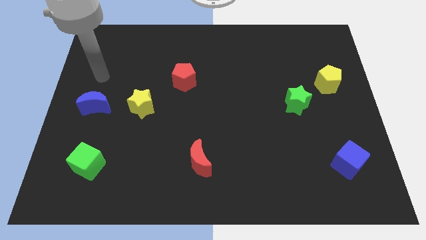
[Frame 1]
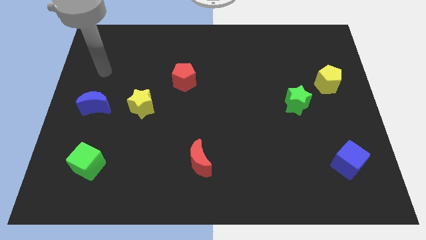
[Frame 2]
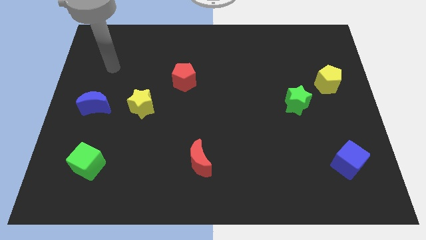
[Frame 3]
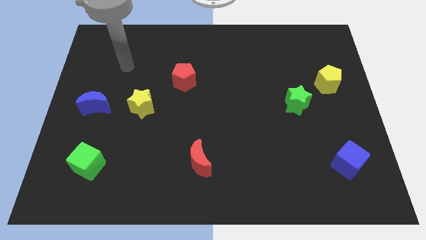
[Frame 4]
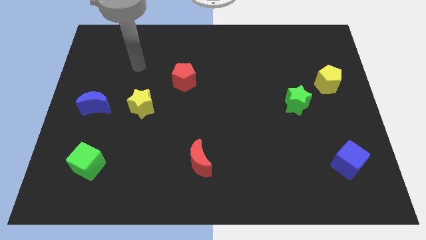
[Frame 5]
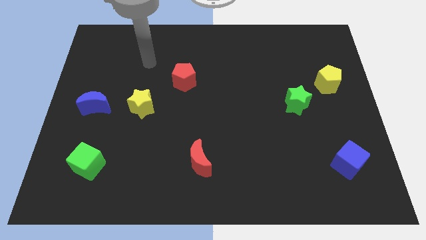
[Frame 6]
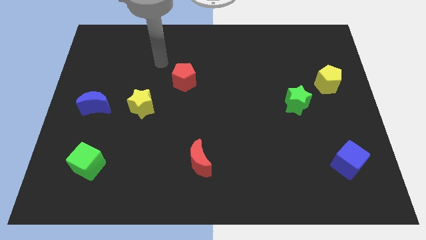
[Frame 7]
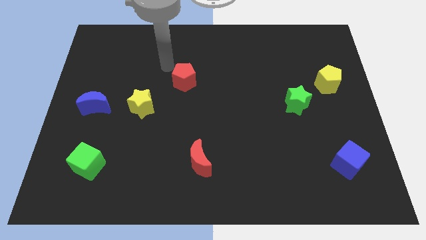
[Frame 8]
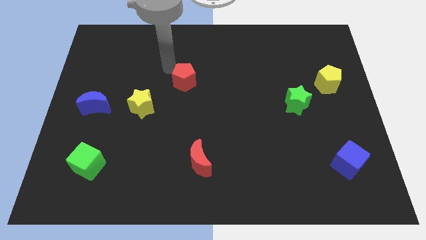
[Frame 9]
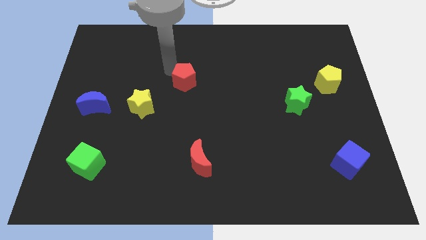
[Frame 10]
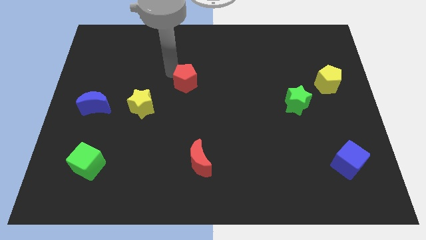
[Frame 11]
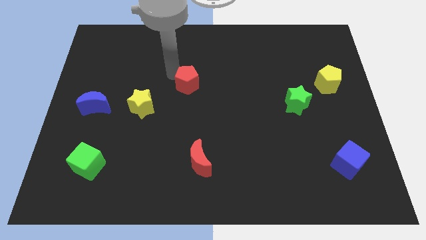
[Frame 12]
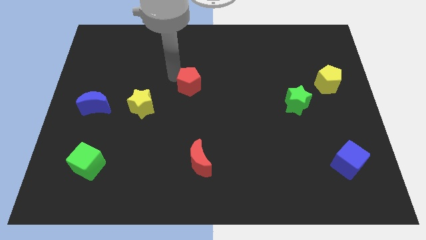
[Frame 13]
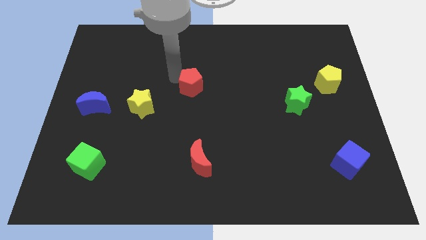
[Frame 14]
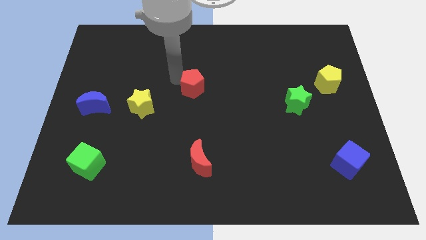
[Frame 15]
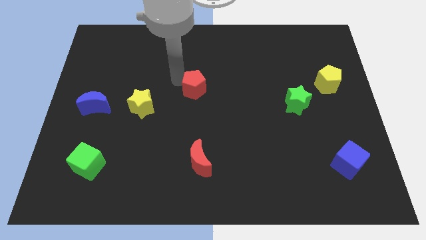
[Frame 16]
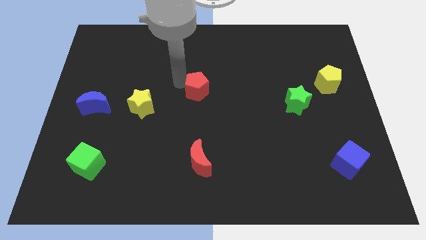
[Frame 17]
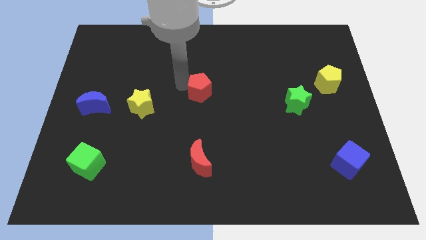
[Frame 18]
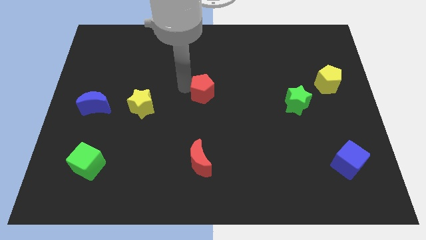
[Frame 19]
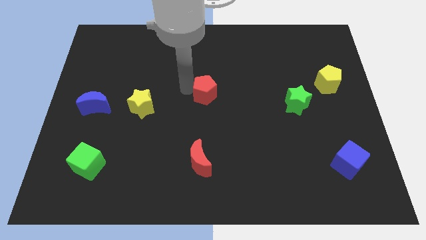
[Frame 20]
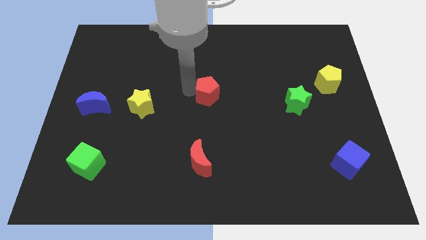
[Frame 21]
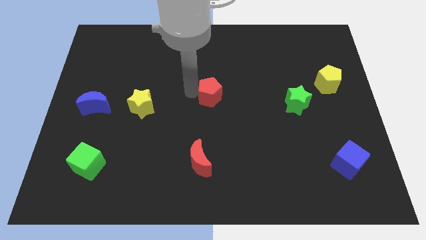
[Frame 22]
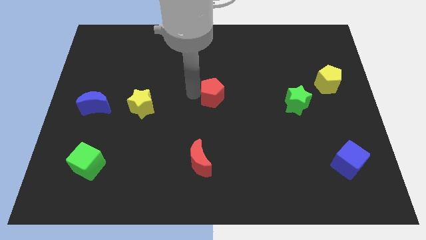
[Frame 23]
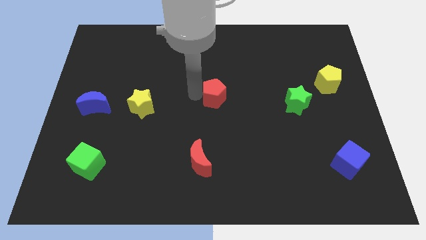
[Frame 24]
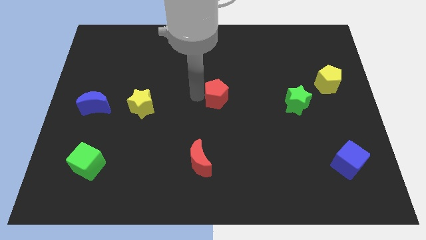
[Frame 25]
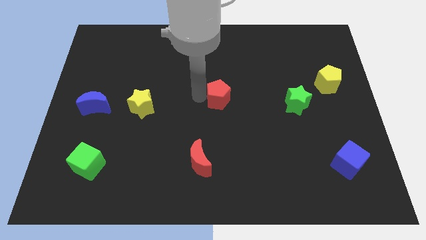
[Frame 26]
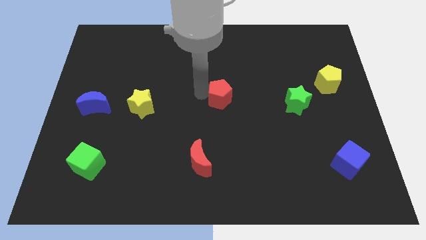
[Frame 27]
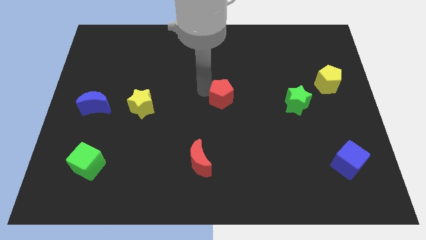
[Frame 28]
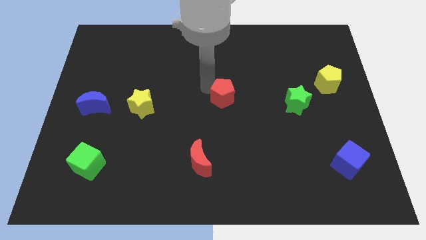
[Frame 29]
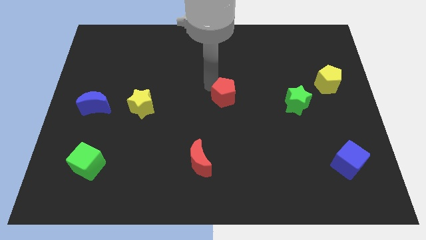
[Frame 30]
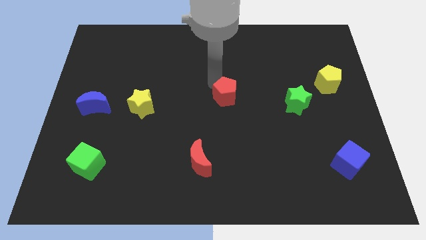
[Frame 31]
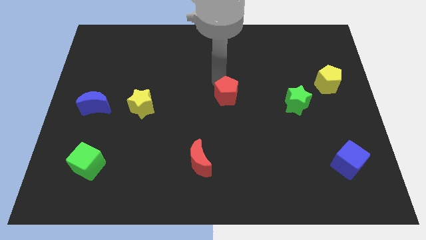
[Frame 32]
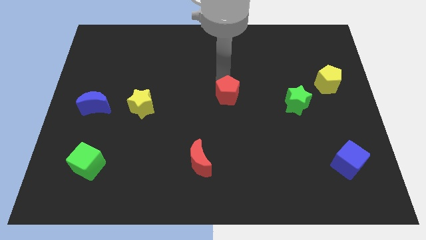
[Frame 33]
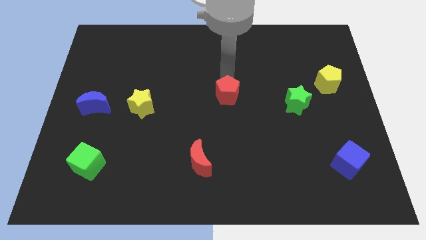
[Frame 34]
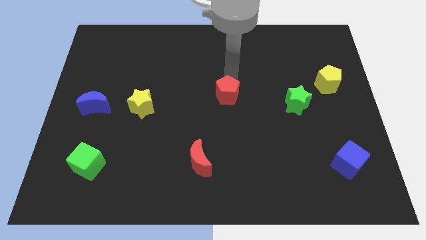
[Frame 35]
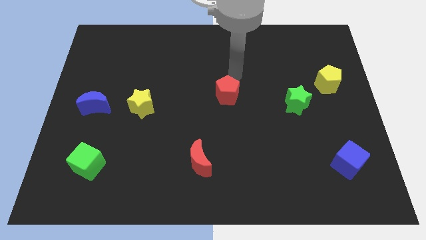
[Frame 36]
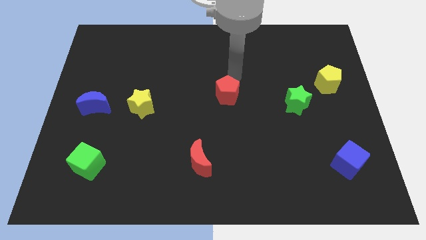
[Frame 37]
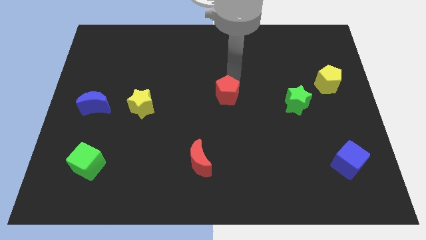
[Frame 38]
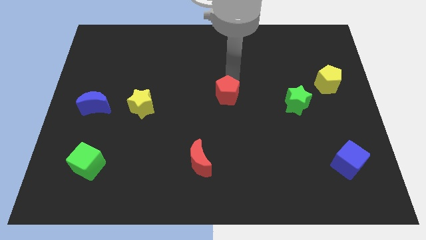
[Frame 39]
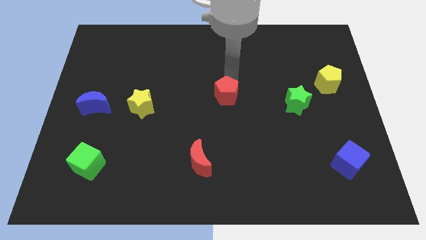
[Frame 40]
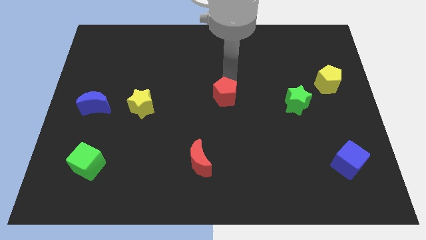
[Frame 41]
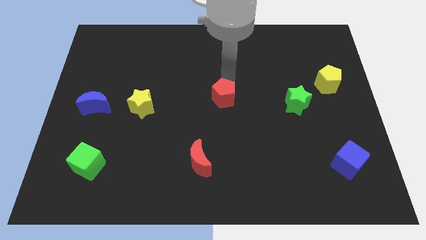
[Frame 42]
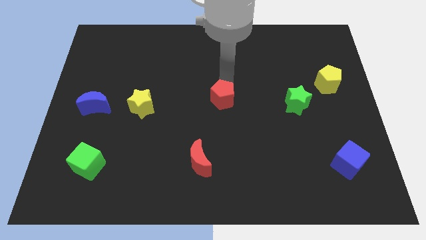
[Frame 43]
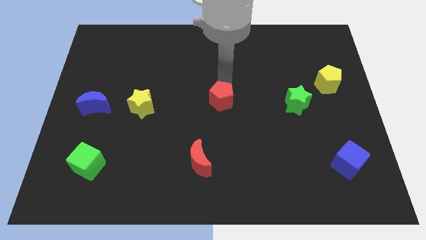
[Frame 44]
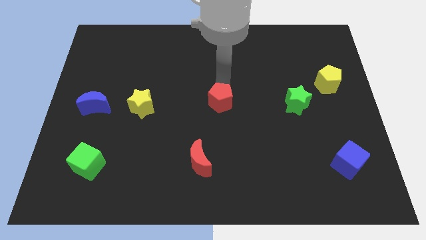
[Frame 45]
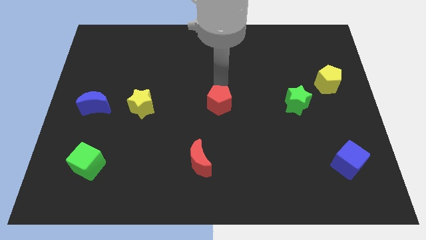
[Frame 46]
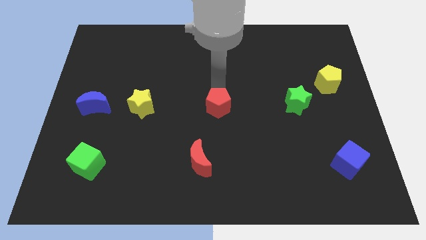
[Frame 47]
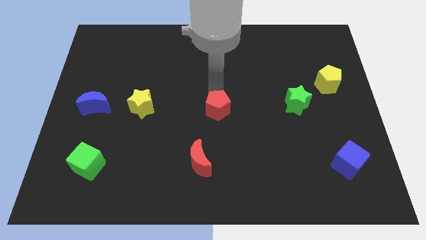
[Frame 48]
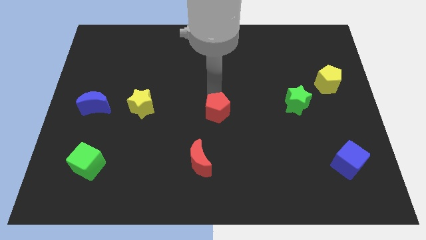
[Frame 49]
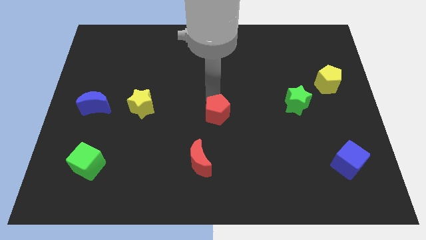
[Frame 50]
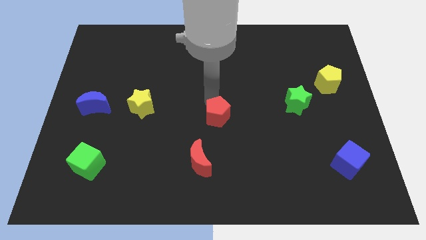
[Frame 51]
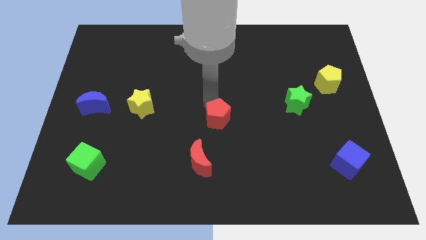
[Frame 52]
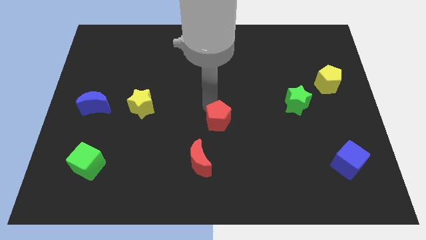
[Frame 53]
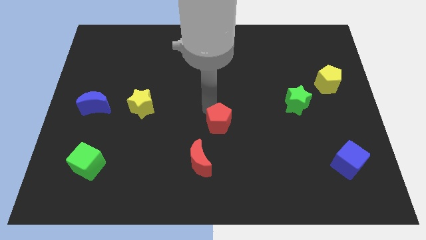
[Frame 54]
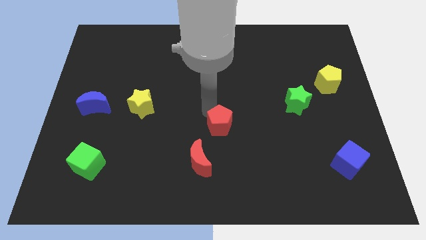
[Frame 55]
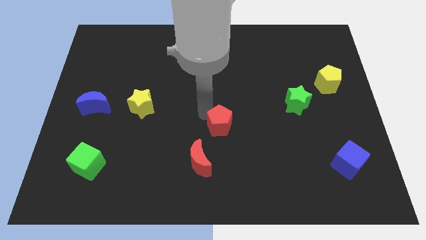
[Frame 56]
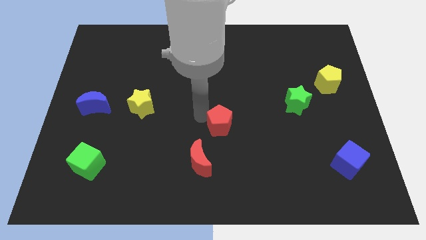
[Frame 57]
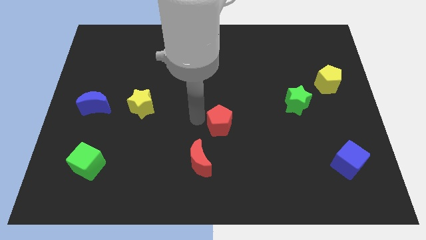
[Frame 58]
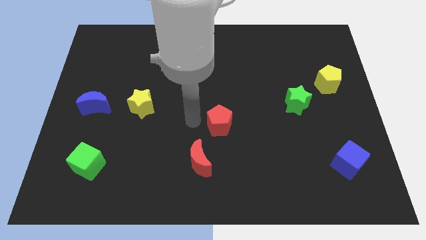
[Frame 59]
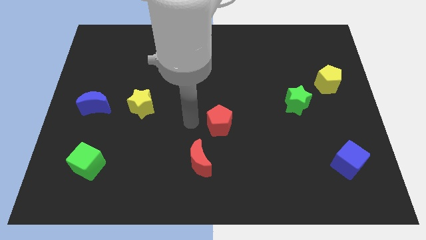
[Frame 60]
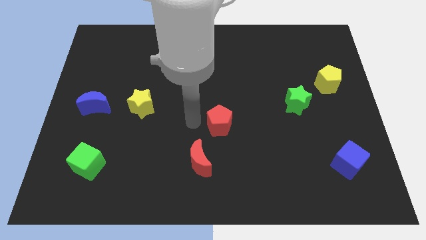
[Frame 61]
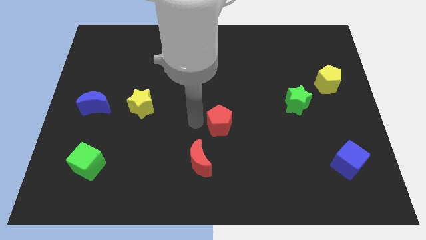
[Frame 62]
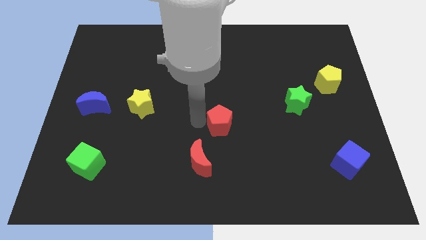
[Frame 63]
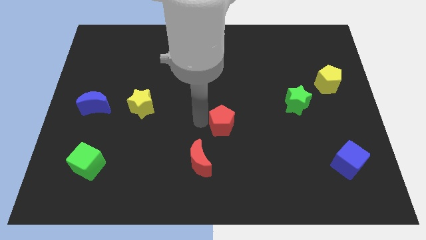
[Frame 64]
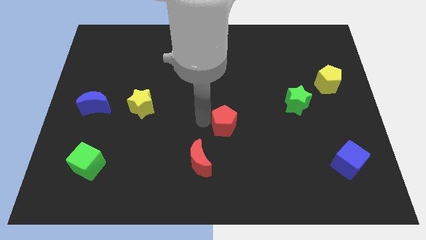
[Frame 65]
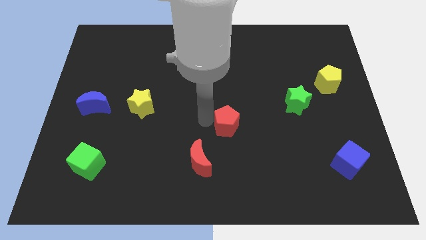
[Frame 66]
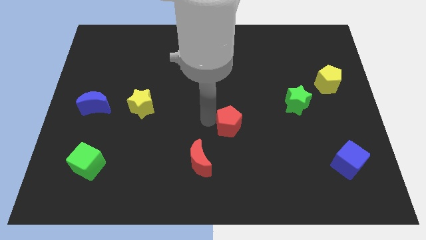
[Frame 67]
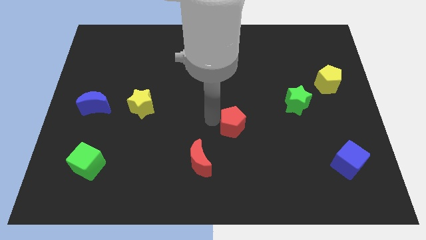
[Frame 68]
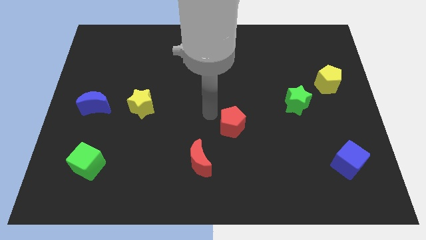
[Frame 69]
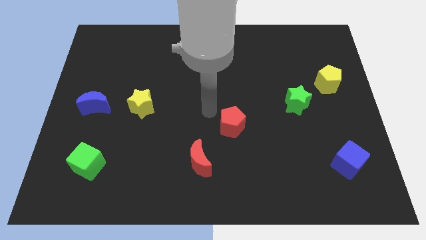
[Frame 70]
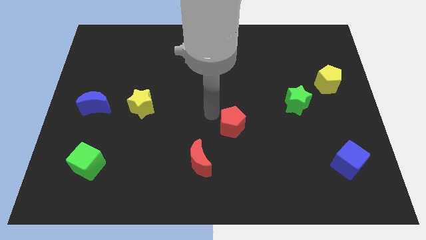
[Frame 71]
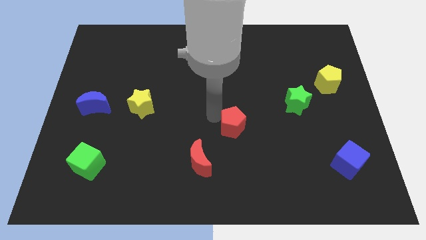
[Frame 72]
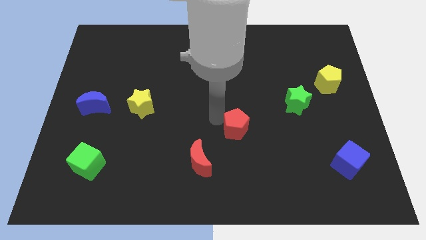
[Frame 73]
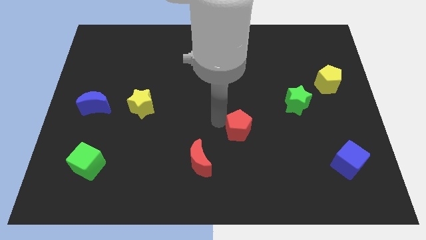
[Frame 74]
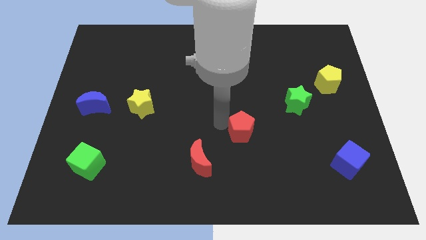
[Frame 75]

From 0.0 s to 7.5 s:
slide the red pentagon downwards and then to the right

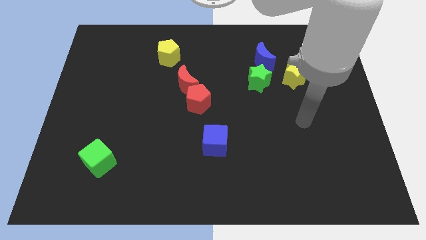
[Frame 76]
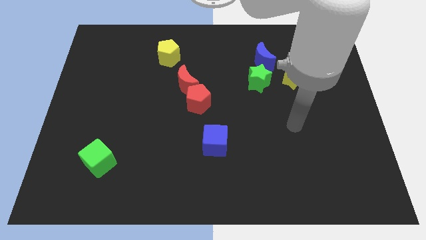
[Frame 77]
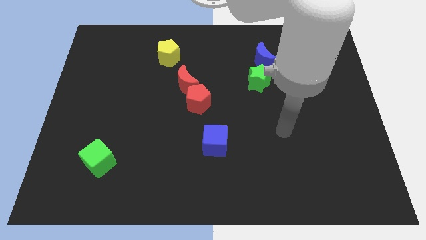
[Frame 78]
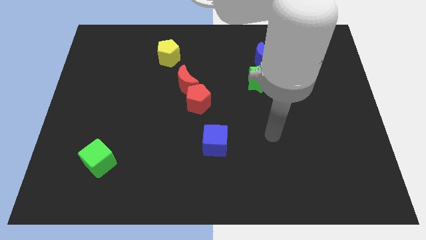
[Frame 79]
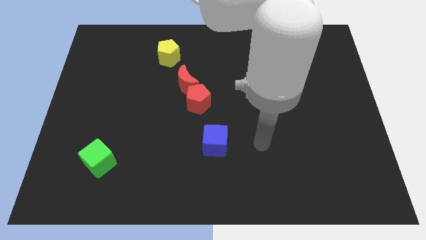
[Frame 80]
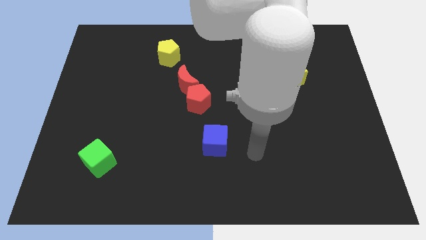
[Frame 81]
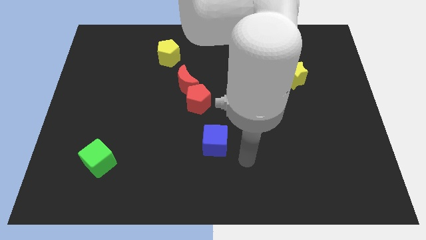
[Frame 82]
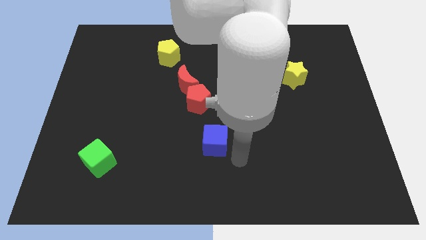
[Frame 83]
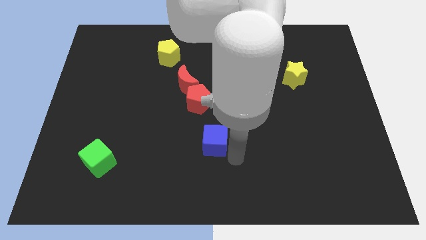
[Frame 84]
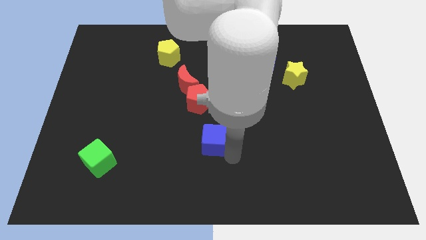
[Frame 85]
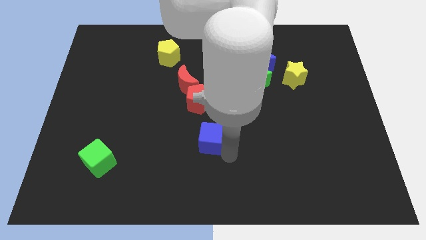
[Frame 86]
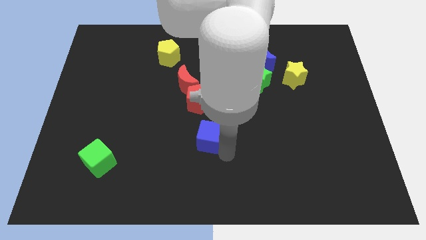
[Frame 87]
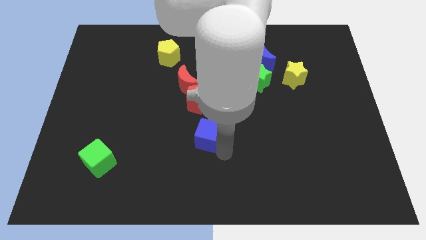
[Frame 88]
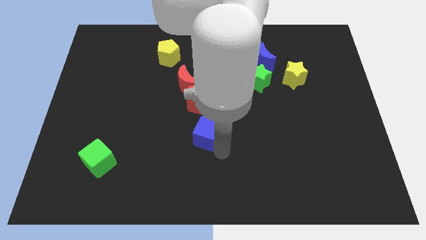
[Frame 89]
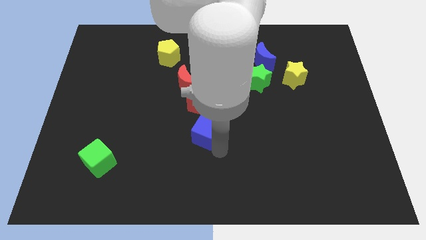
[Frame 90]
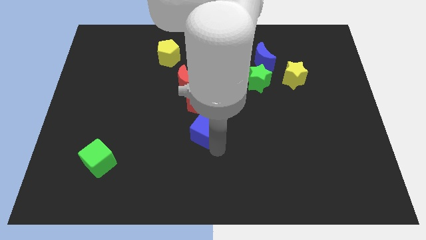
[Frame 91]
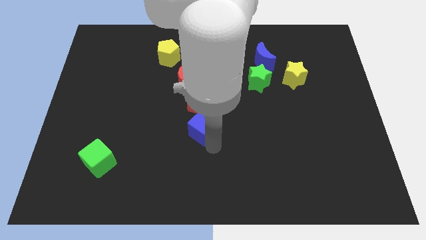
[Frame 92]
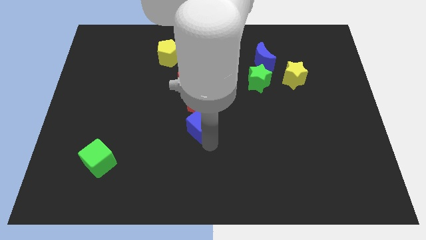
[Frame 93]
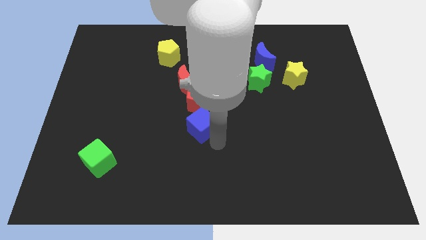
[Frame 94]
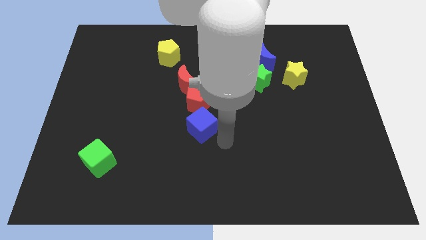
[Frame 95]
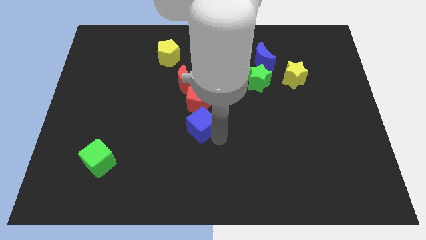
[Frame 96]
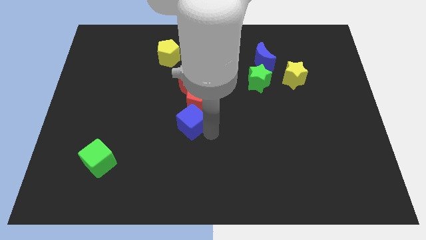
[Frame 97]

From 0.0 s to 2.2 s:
move the blue cube up and left diagonally a bit
